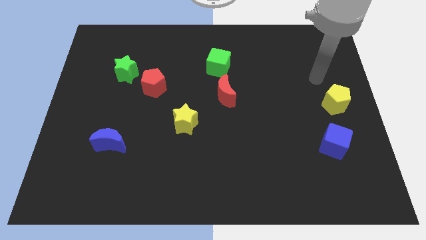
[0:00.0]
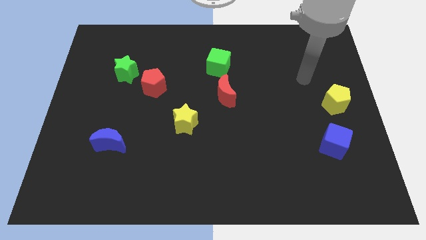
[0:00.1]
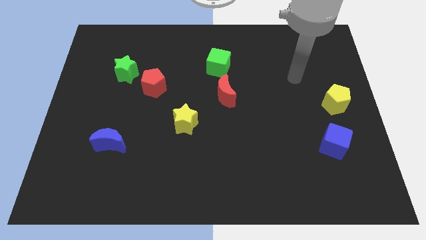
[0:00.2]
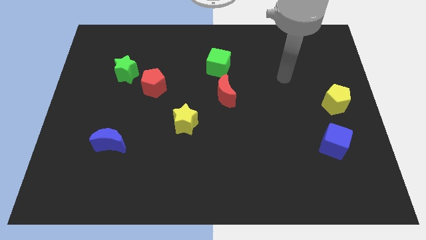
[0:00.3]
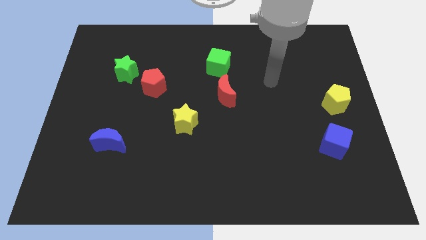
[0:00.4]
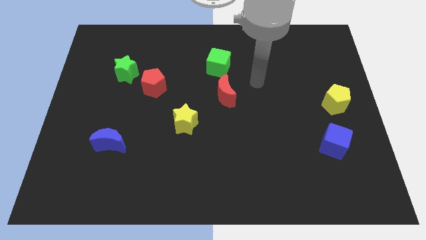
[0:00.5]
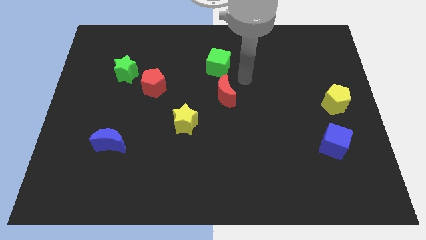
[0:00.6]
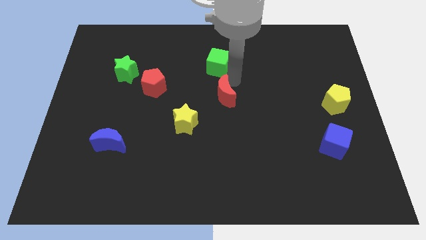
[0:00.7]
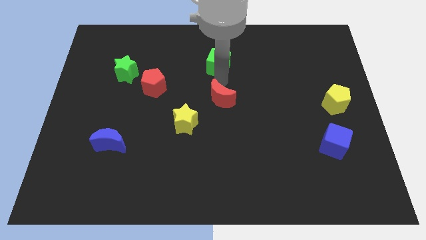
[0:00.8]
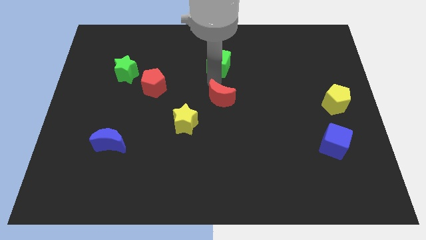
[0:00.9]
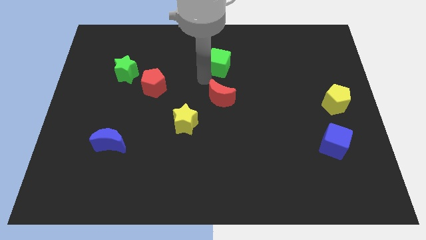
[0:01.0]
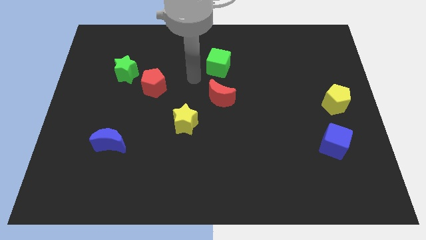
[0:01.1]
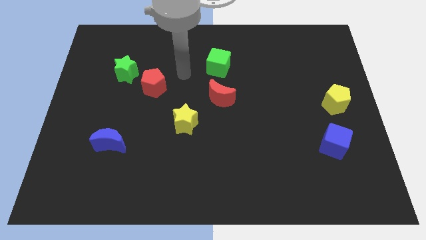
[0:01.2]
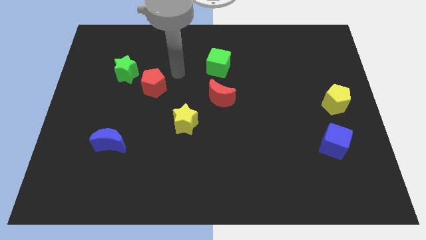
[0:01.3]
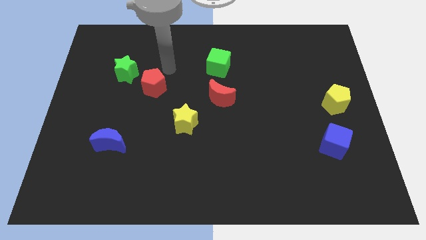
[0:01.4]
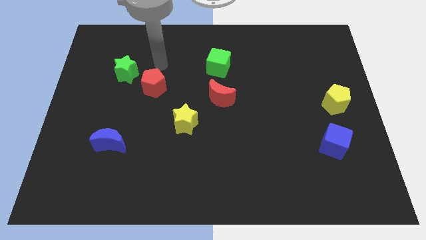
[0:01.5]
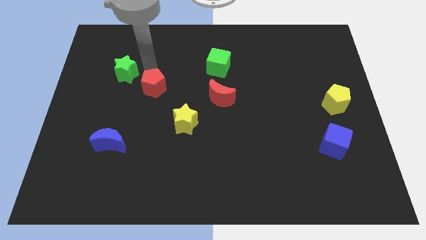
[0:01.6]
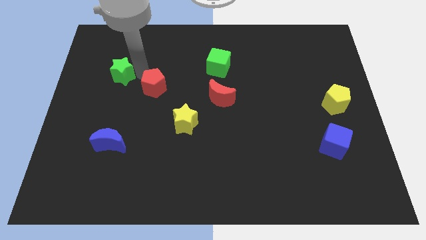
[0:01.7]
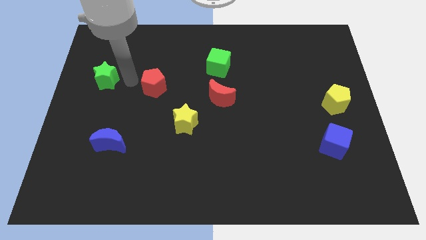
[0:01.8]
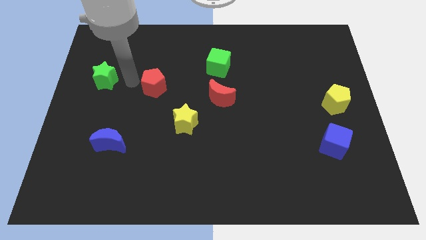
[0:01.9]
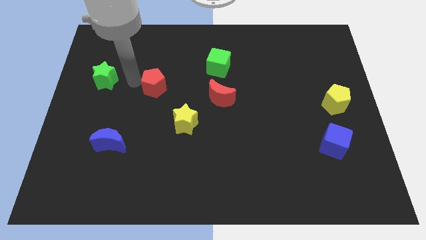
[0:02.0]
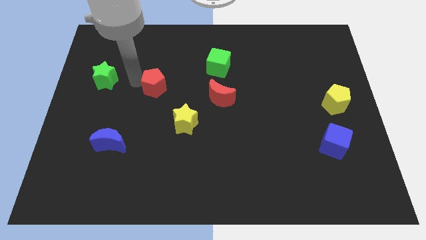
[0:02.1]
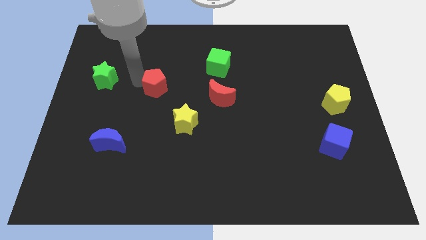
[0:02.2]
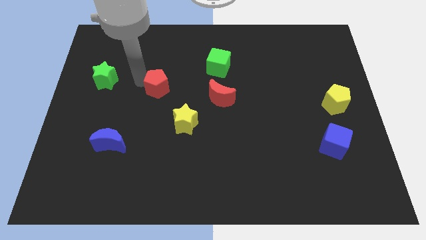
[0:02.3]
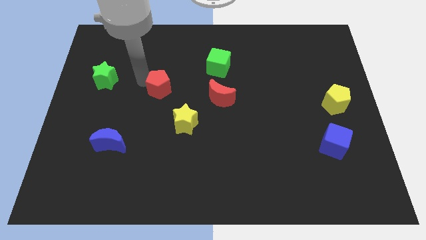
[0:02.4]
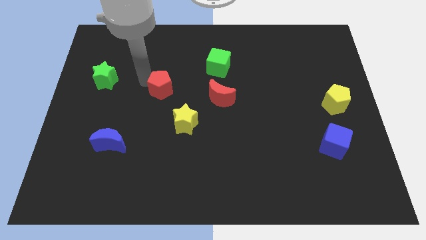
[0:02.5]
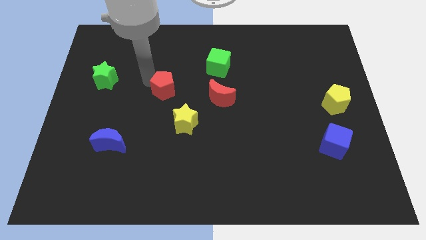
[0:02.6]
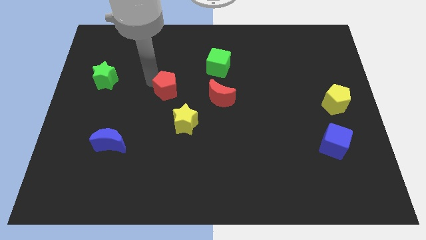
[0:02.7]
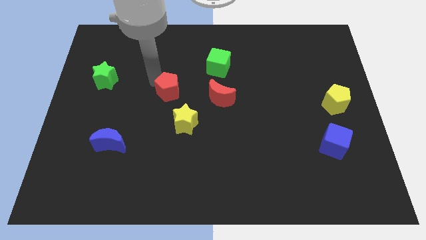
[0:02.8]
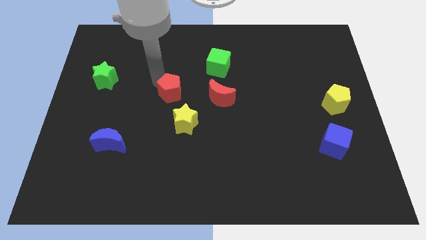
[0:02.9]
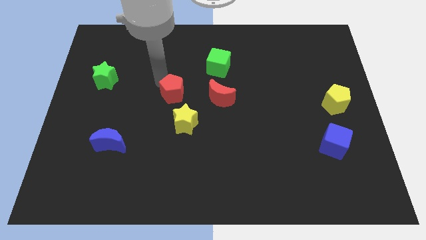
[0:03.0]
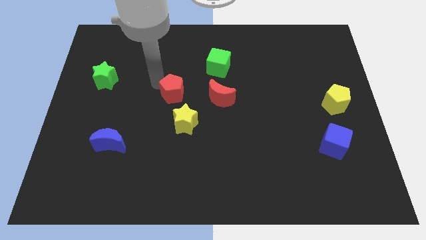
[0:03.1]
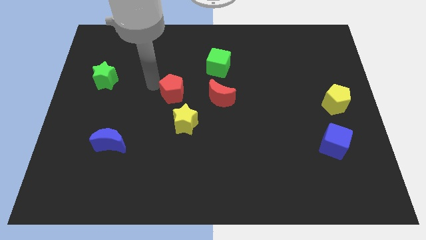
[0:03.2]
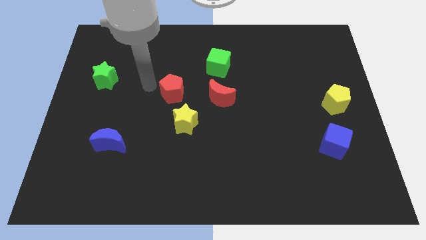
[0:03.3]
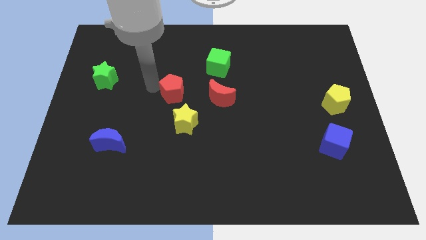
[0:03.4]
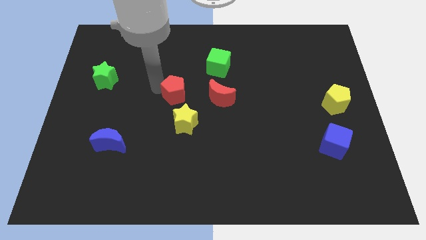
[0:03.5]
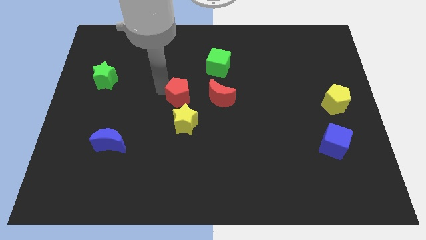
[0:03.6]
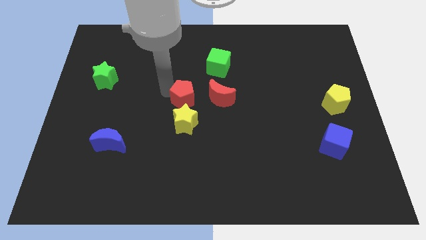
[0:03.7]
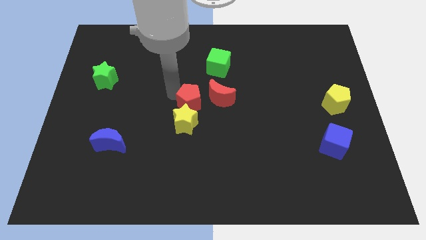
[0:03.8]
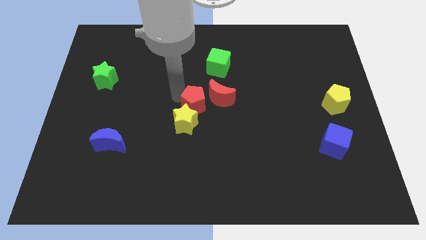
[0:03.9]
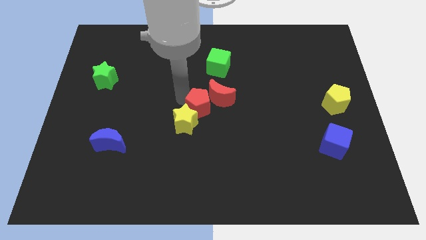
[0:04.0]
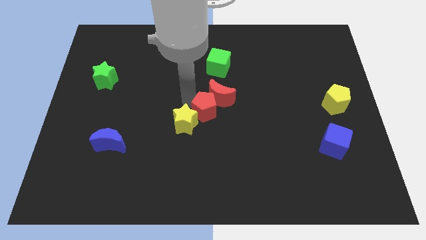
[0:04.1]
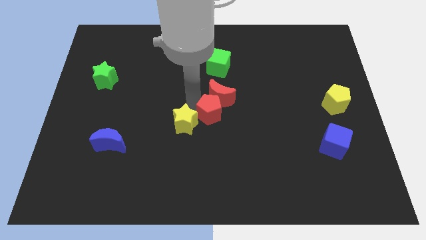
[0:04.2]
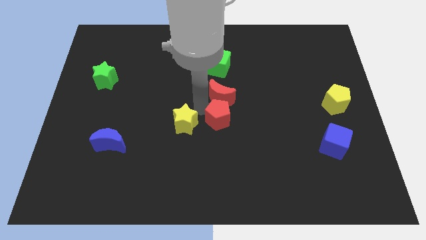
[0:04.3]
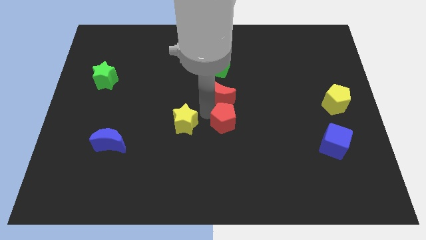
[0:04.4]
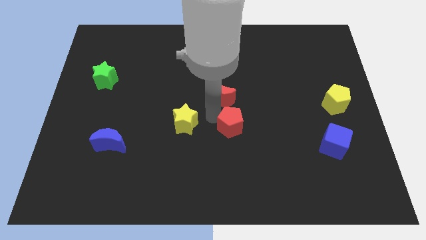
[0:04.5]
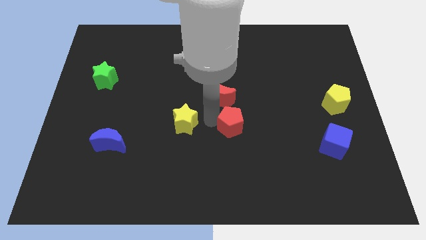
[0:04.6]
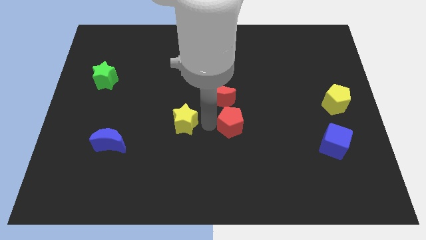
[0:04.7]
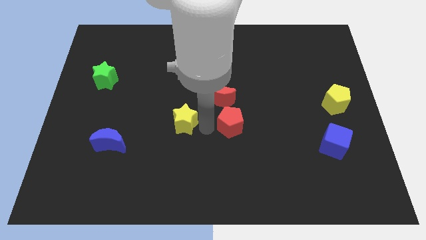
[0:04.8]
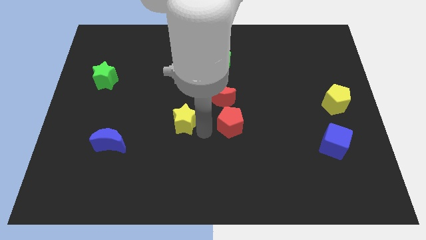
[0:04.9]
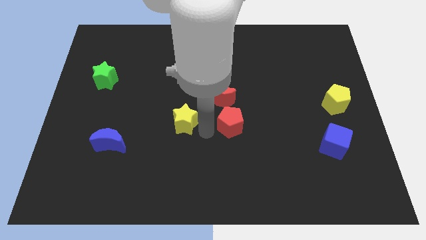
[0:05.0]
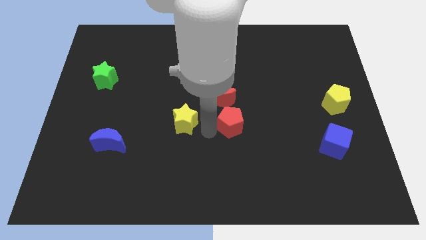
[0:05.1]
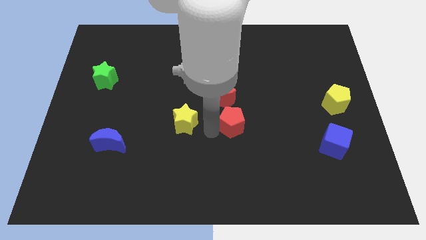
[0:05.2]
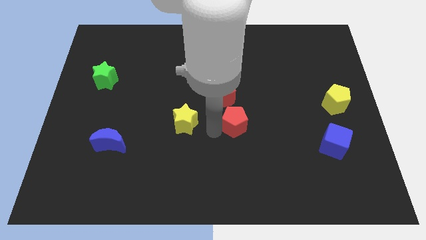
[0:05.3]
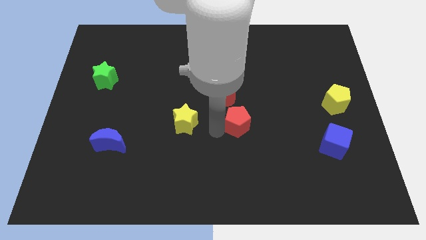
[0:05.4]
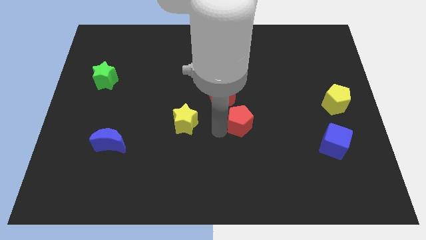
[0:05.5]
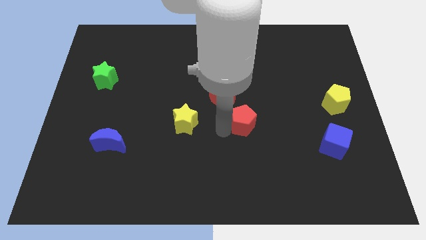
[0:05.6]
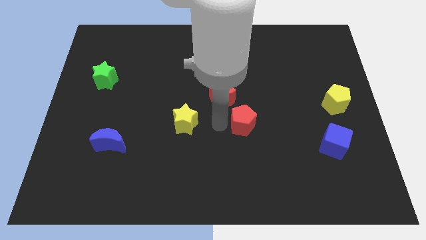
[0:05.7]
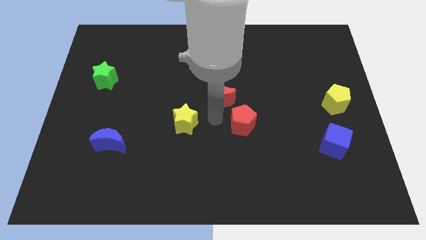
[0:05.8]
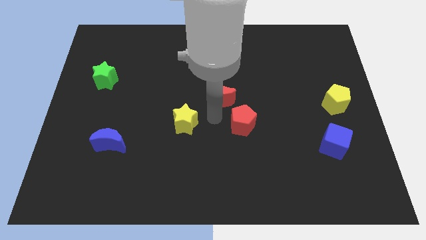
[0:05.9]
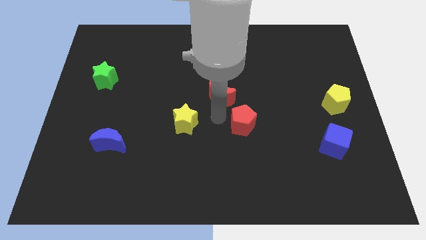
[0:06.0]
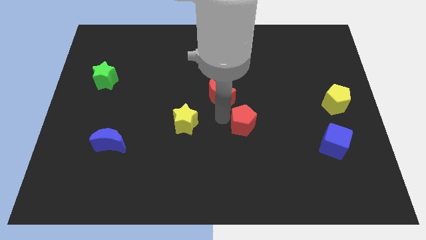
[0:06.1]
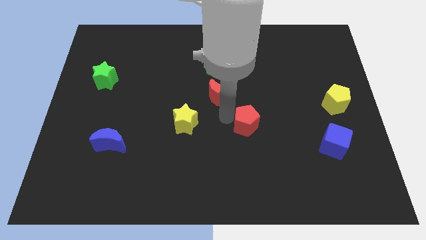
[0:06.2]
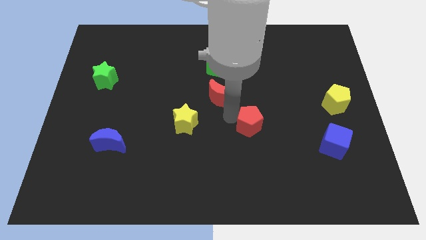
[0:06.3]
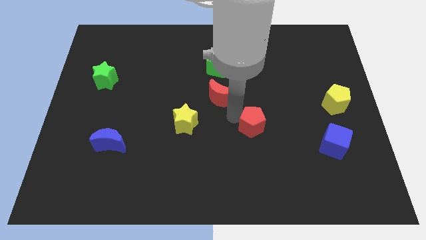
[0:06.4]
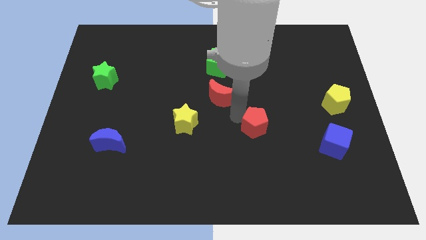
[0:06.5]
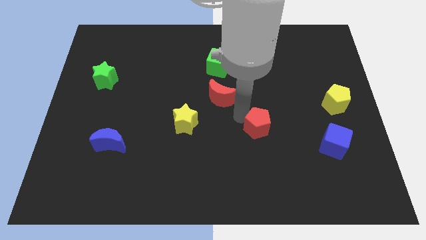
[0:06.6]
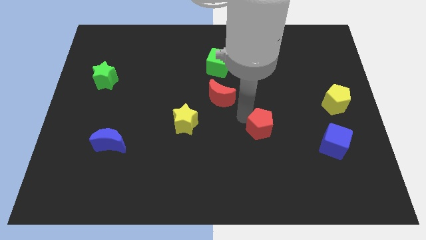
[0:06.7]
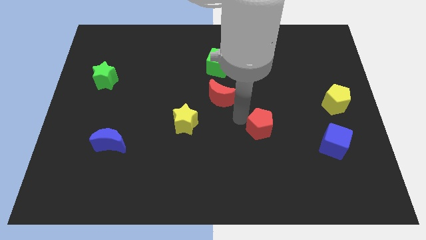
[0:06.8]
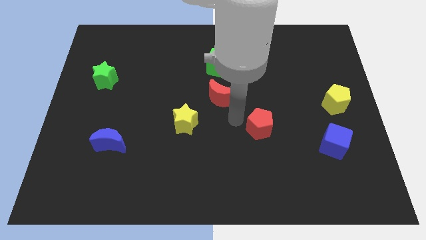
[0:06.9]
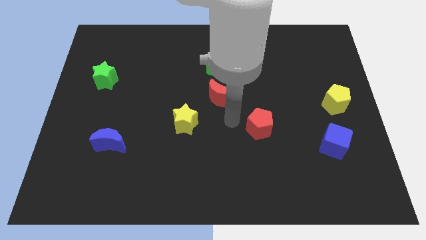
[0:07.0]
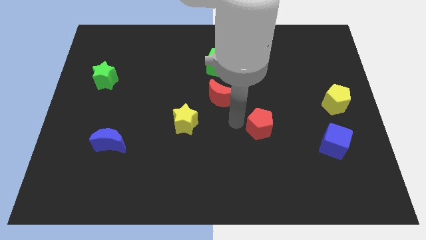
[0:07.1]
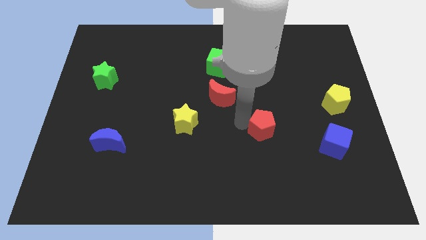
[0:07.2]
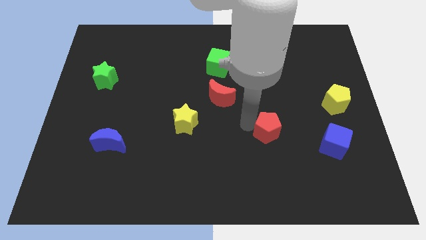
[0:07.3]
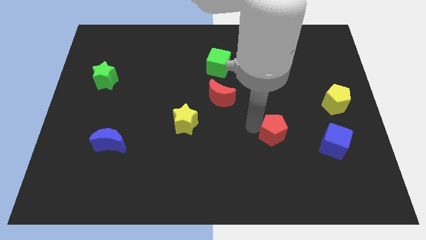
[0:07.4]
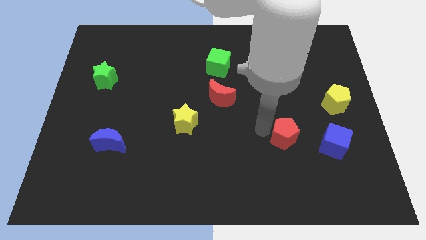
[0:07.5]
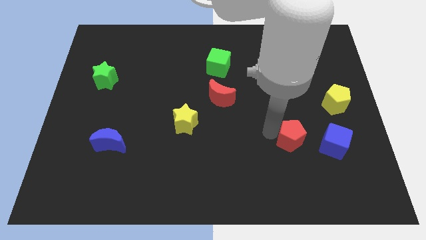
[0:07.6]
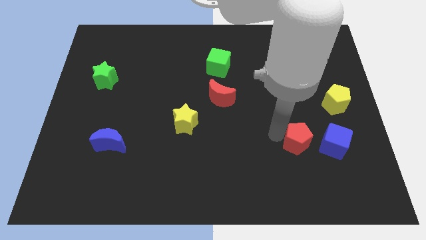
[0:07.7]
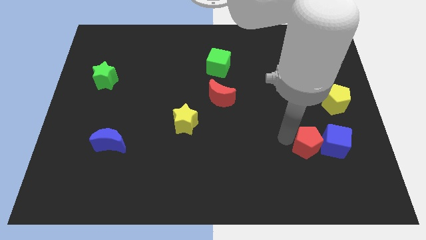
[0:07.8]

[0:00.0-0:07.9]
slide the red pentagon close to the blue cube
